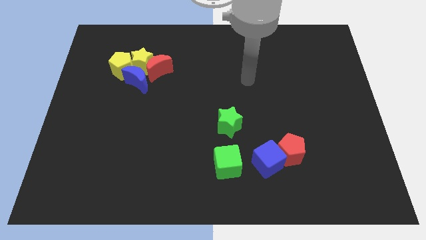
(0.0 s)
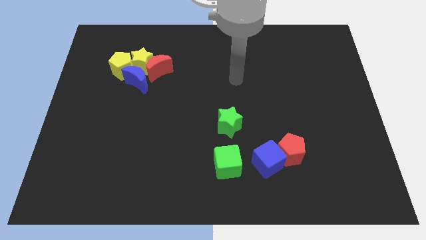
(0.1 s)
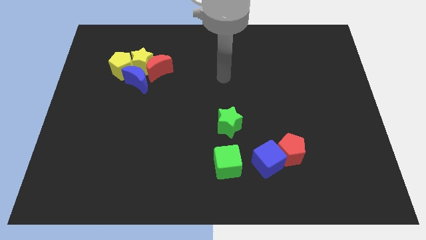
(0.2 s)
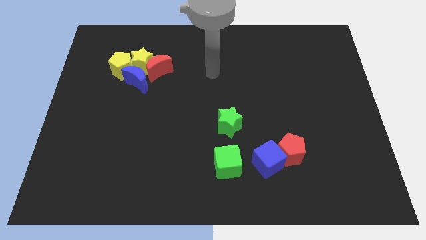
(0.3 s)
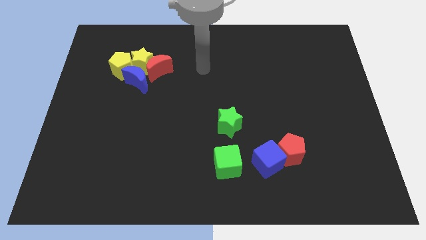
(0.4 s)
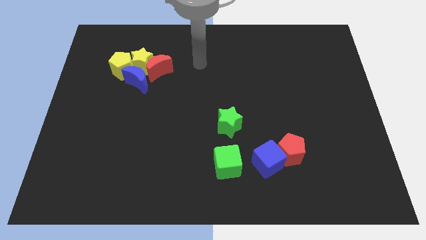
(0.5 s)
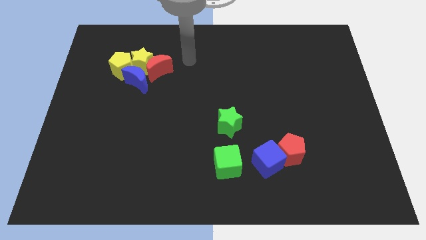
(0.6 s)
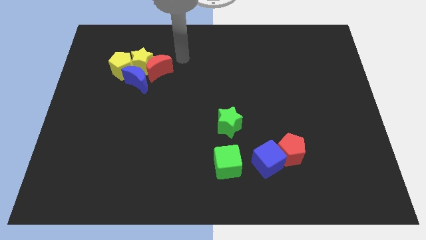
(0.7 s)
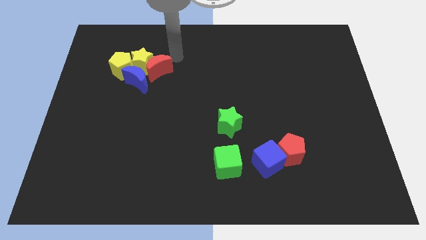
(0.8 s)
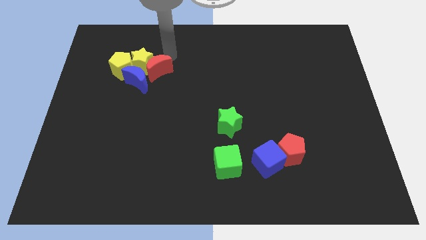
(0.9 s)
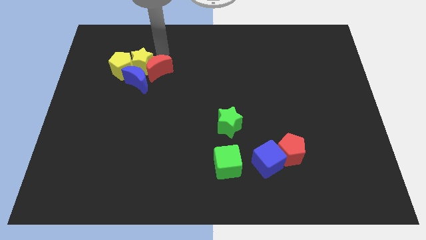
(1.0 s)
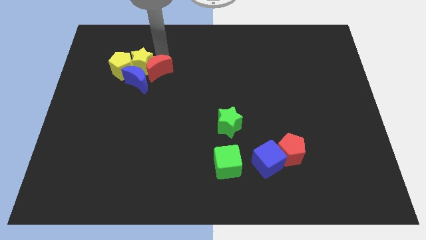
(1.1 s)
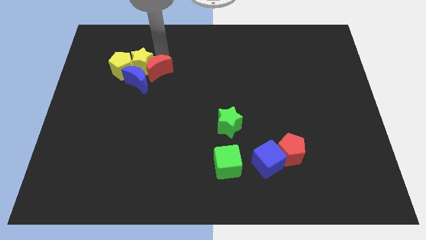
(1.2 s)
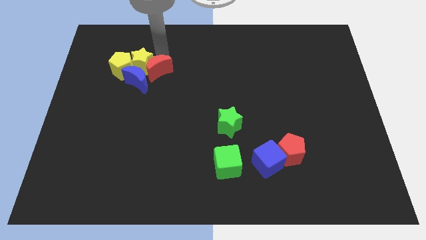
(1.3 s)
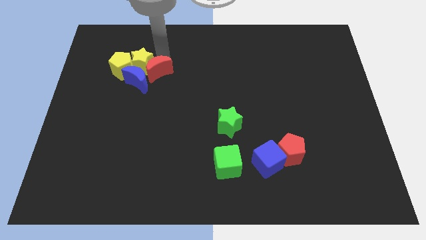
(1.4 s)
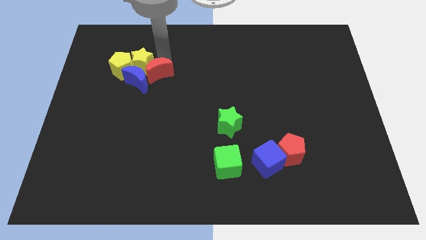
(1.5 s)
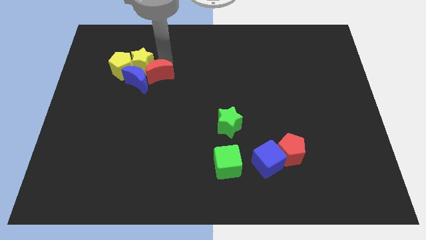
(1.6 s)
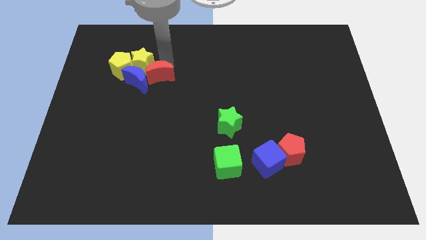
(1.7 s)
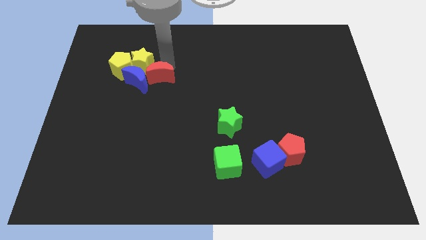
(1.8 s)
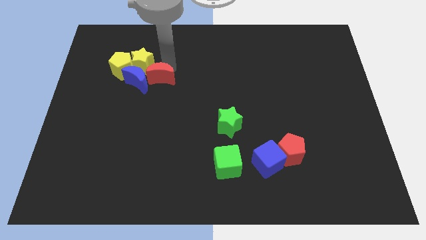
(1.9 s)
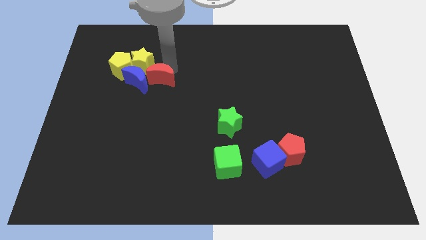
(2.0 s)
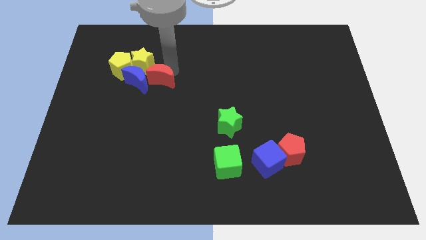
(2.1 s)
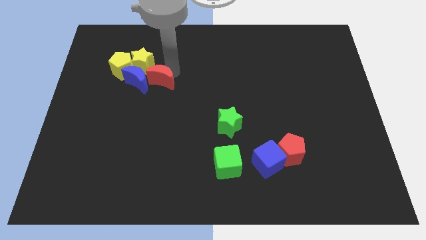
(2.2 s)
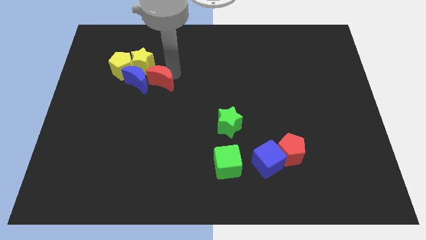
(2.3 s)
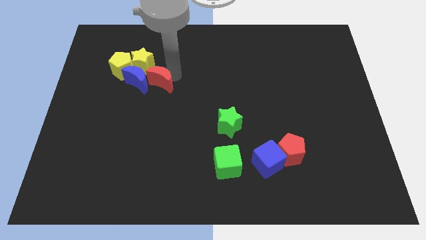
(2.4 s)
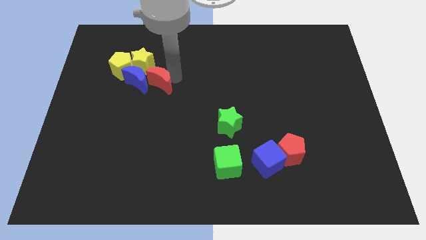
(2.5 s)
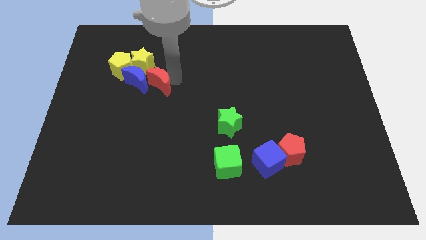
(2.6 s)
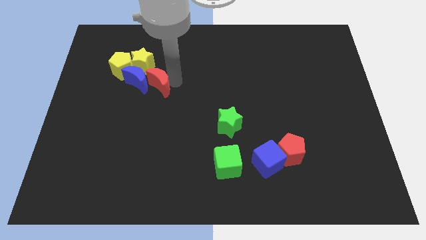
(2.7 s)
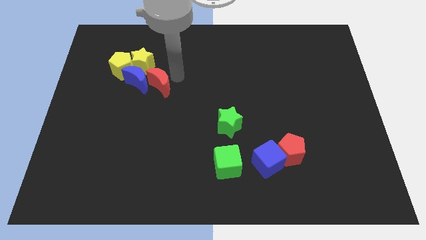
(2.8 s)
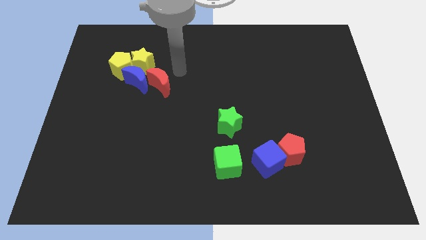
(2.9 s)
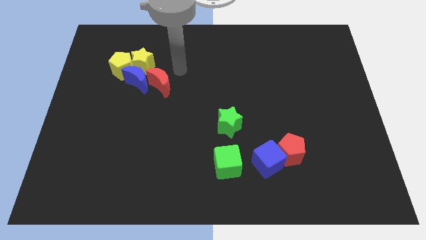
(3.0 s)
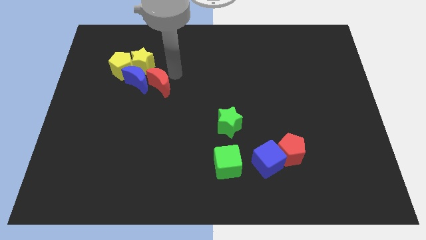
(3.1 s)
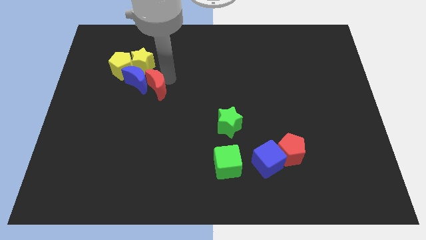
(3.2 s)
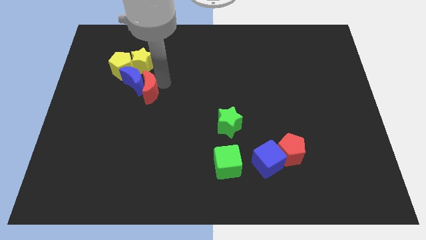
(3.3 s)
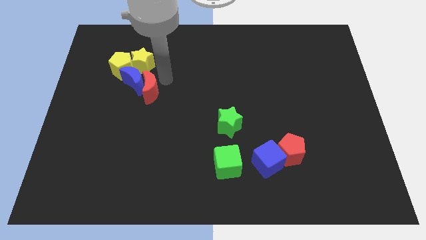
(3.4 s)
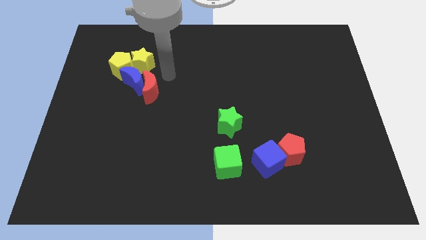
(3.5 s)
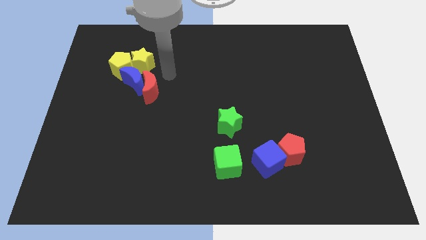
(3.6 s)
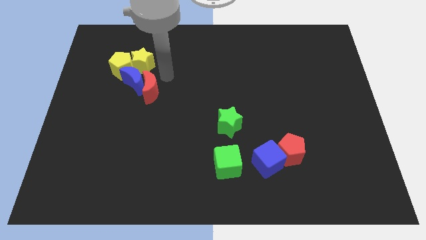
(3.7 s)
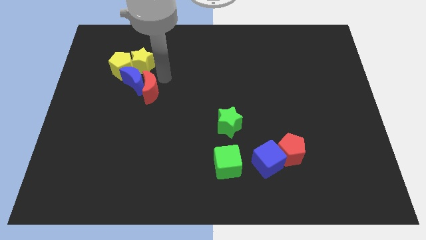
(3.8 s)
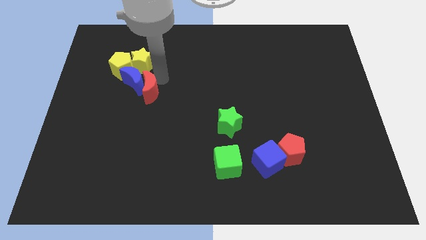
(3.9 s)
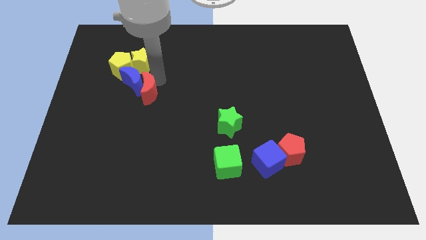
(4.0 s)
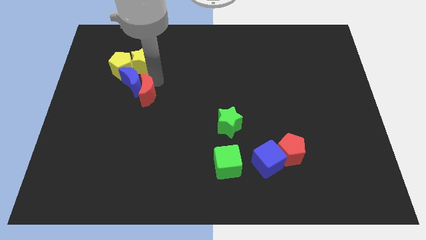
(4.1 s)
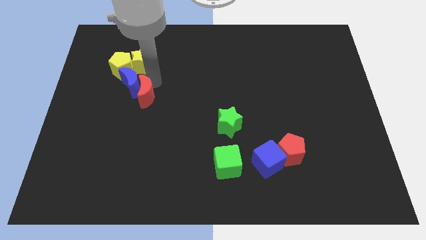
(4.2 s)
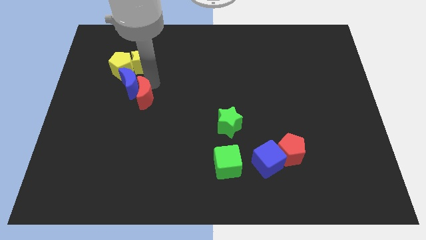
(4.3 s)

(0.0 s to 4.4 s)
slide the red moon somewhat diagonally downwards and to the left

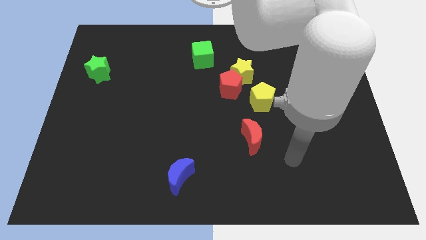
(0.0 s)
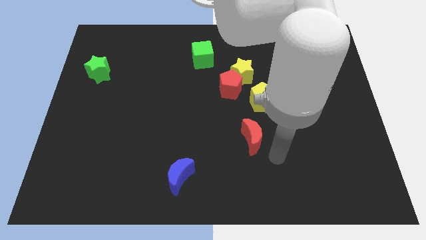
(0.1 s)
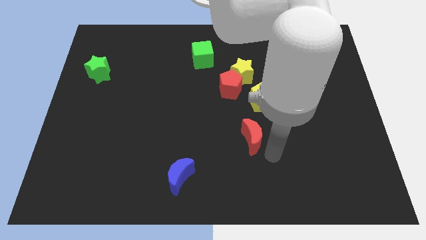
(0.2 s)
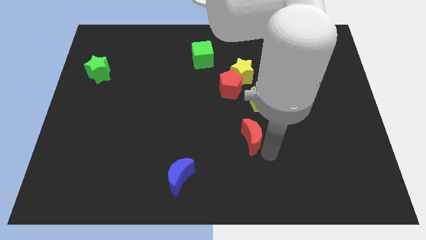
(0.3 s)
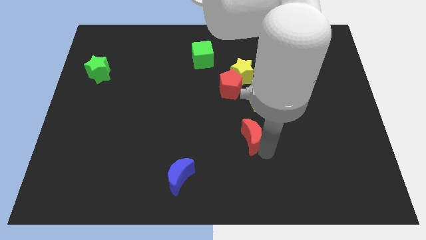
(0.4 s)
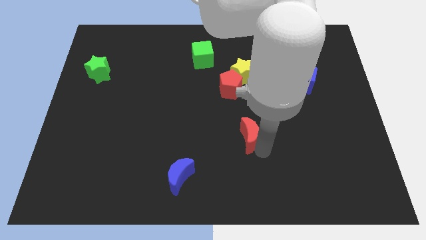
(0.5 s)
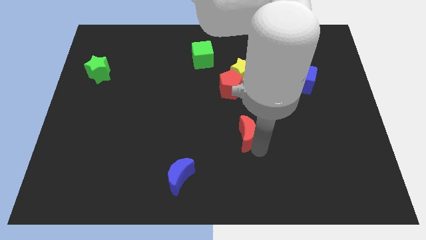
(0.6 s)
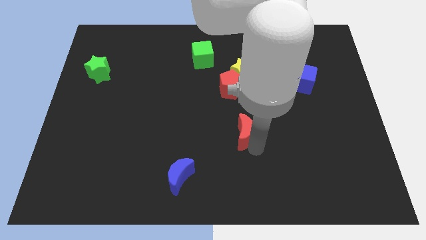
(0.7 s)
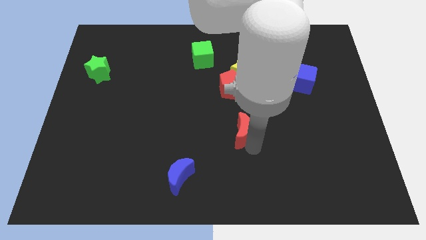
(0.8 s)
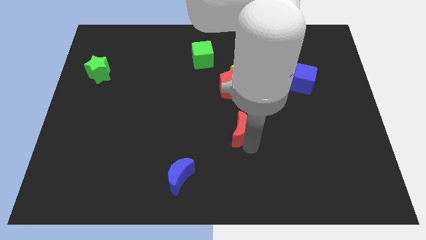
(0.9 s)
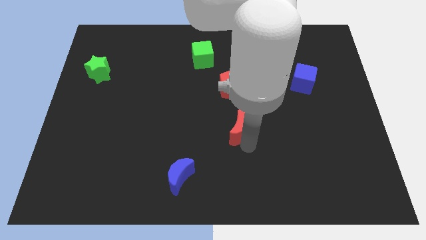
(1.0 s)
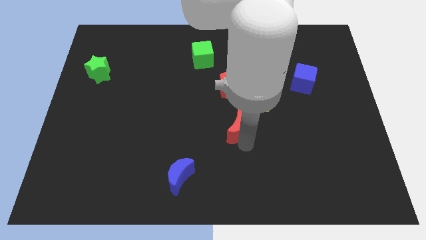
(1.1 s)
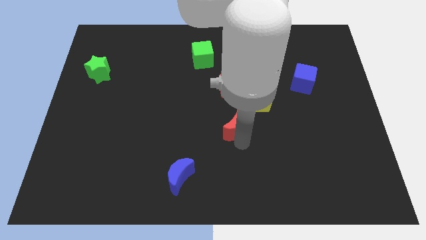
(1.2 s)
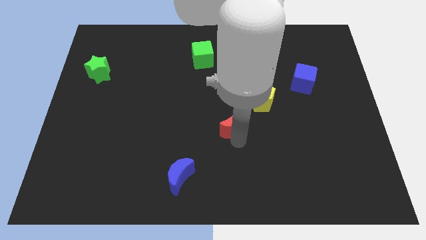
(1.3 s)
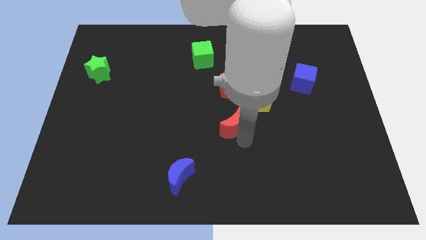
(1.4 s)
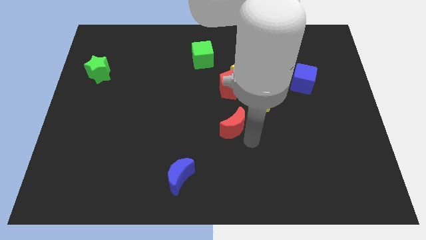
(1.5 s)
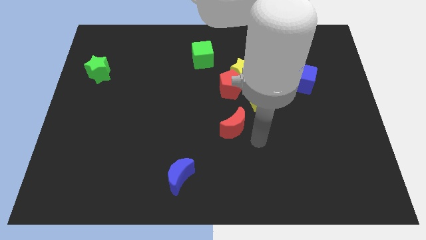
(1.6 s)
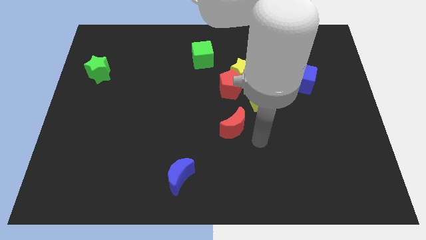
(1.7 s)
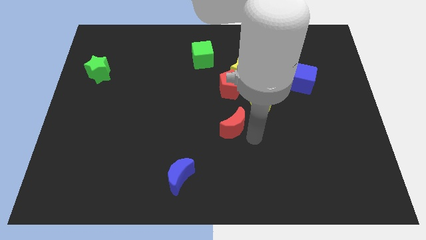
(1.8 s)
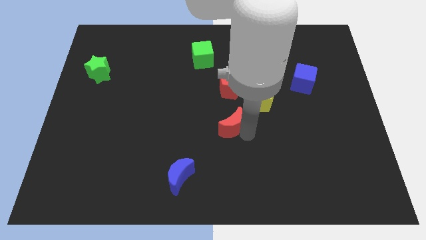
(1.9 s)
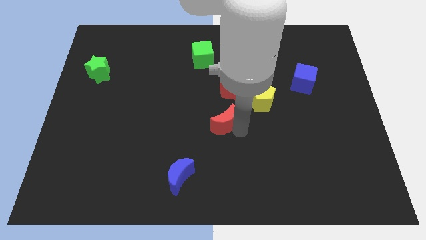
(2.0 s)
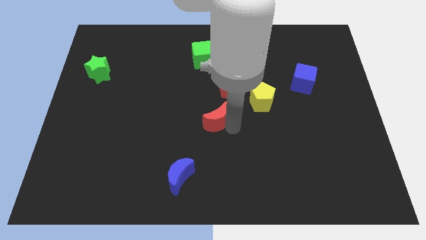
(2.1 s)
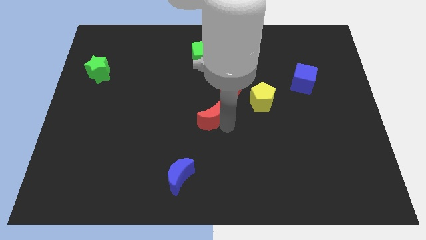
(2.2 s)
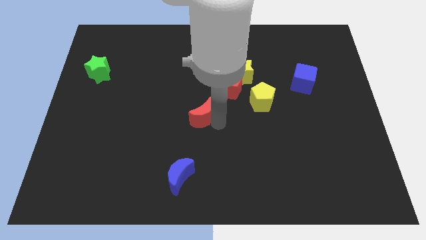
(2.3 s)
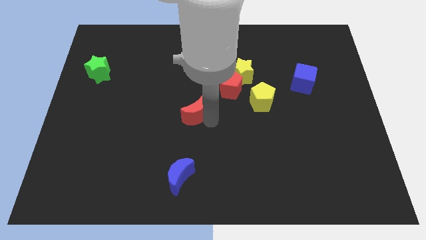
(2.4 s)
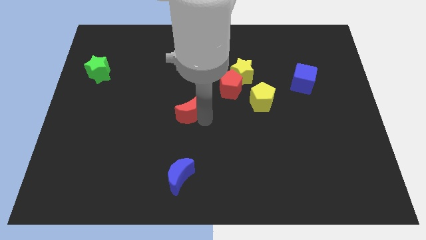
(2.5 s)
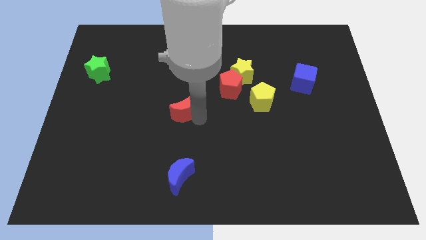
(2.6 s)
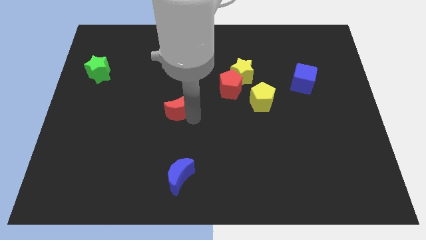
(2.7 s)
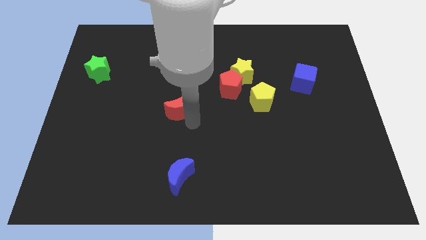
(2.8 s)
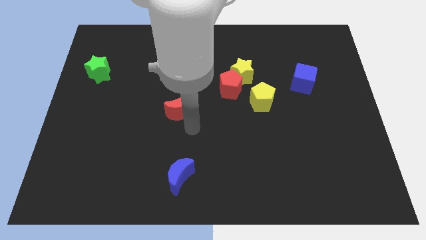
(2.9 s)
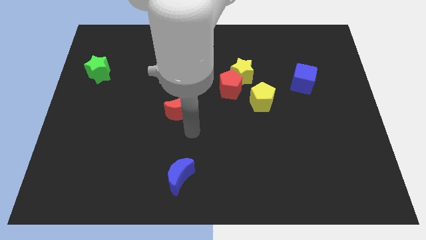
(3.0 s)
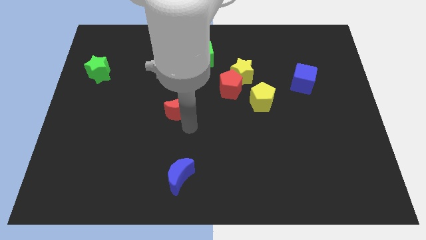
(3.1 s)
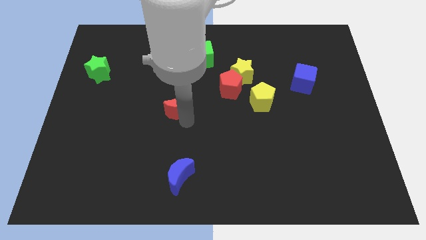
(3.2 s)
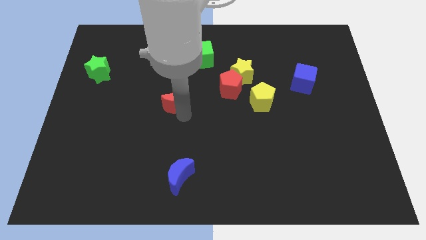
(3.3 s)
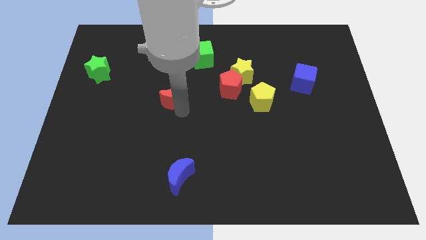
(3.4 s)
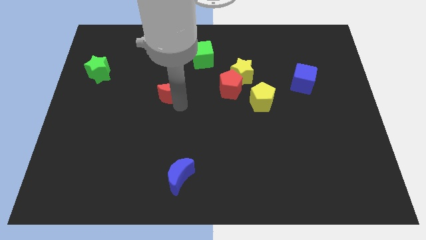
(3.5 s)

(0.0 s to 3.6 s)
move the red moon upwards and left
